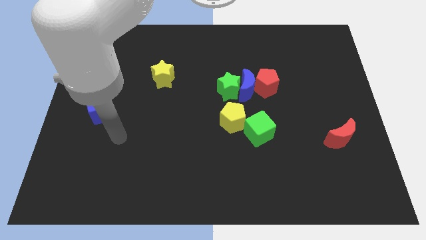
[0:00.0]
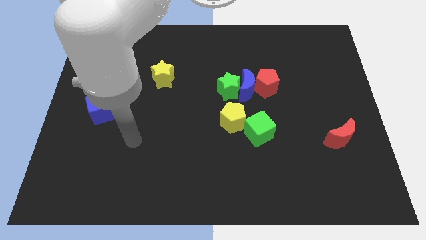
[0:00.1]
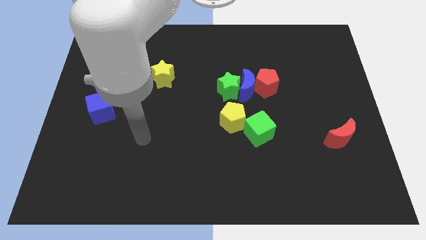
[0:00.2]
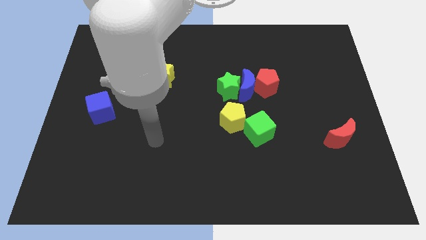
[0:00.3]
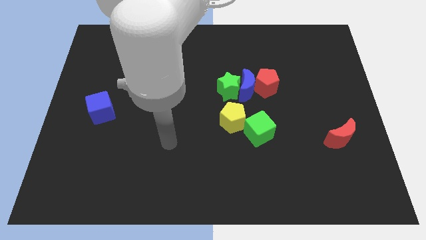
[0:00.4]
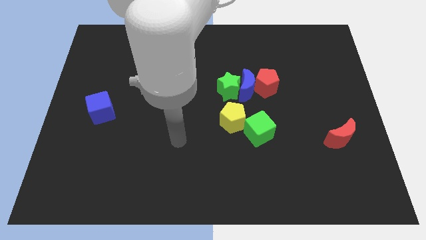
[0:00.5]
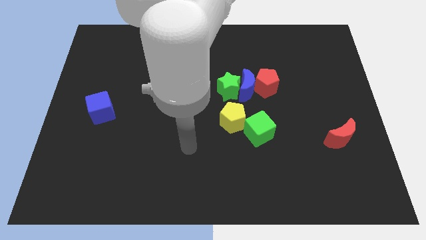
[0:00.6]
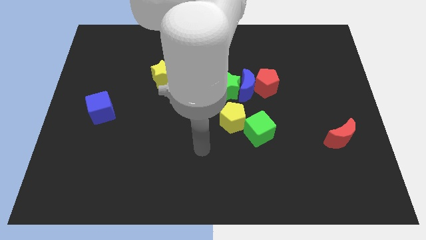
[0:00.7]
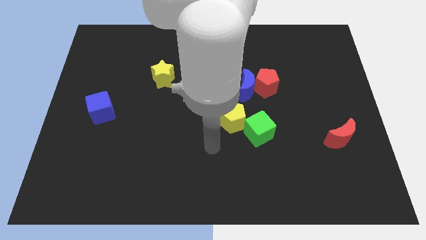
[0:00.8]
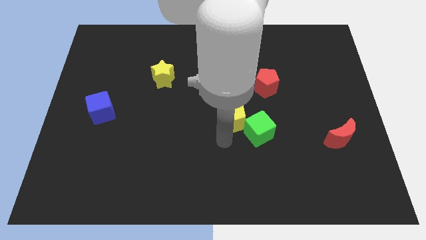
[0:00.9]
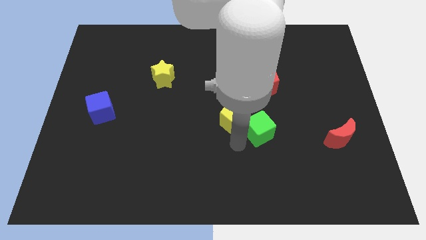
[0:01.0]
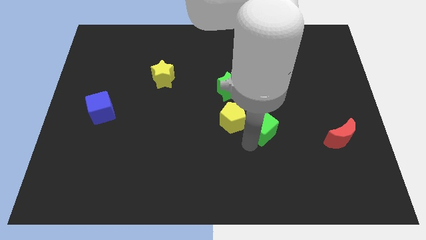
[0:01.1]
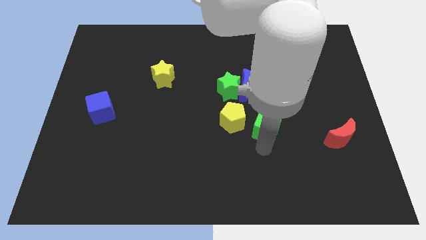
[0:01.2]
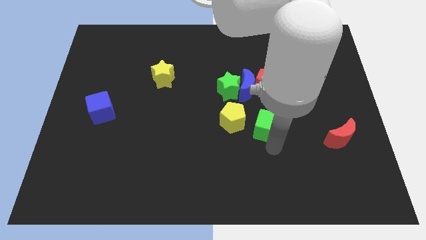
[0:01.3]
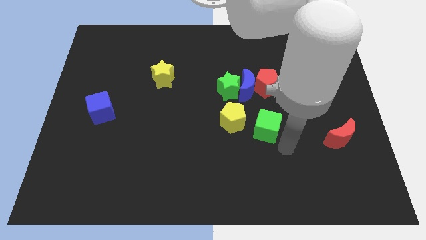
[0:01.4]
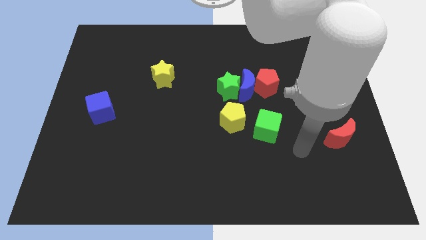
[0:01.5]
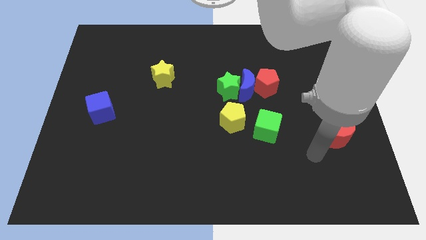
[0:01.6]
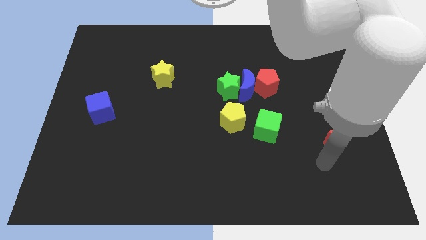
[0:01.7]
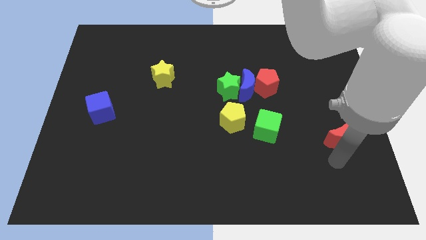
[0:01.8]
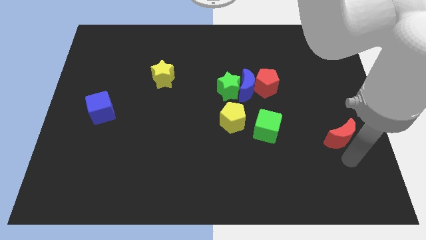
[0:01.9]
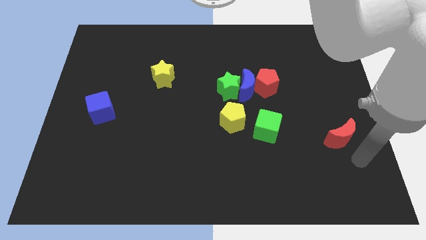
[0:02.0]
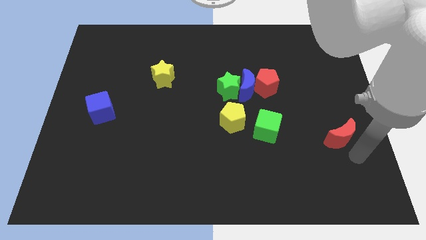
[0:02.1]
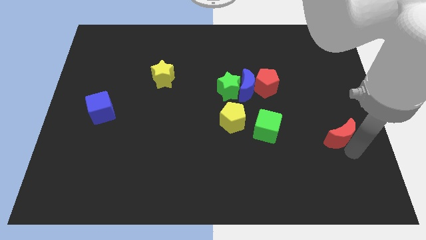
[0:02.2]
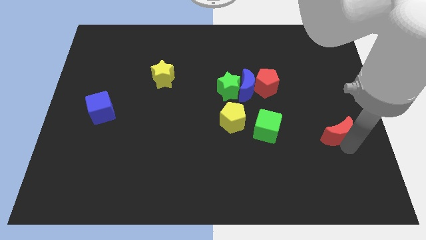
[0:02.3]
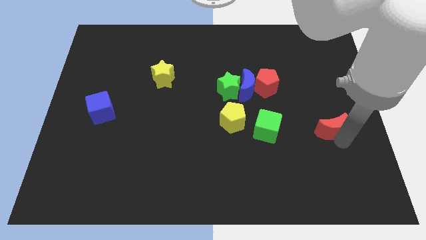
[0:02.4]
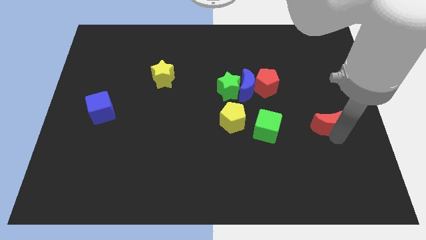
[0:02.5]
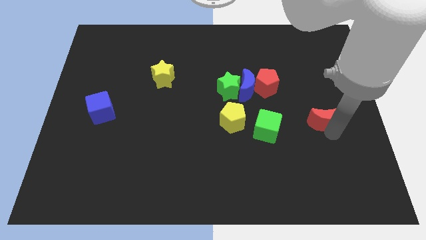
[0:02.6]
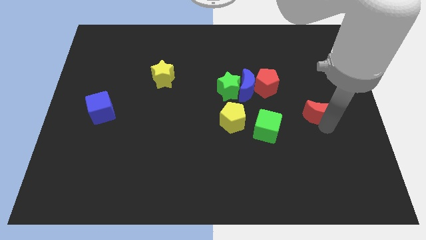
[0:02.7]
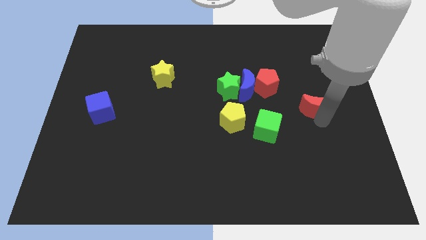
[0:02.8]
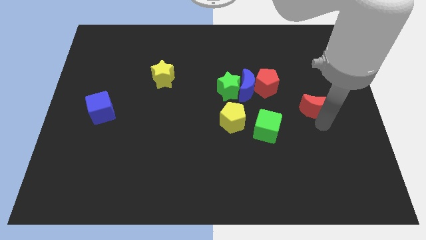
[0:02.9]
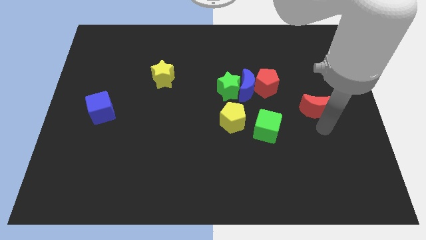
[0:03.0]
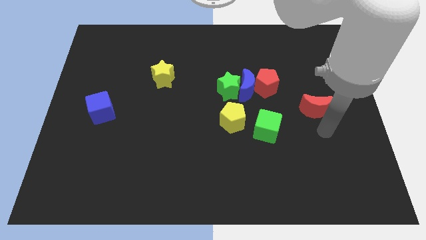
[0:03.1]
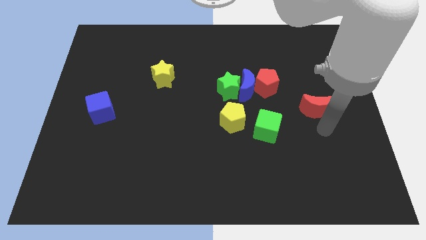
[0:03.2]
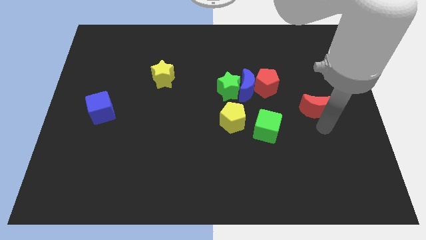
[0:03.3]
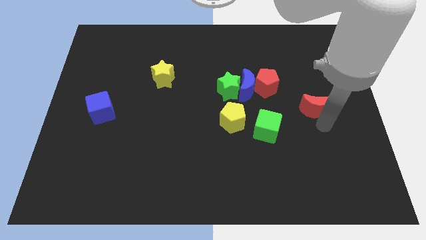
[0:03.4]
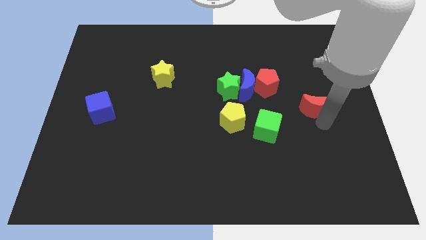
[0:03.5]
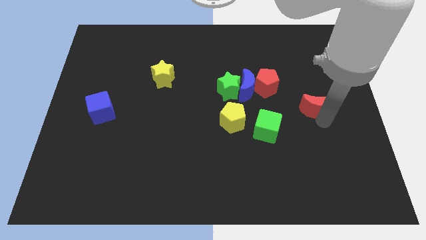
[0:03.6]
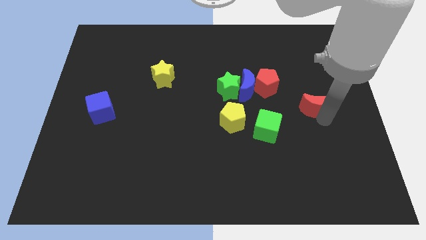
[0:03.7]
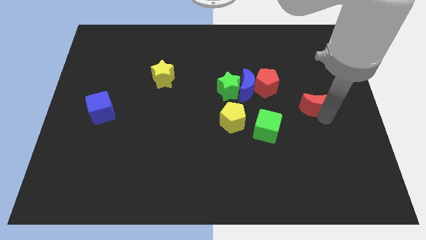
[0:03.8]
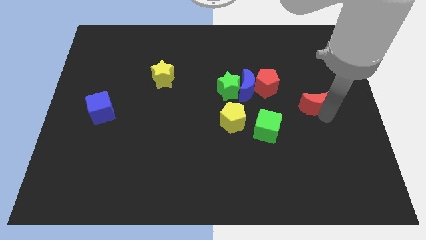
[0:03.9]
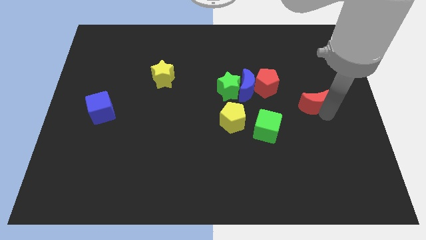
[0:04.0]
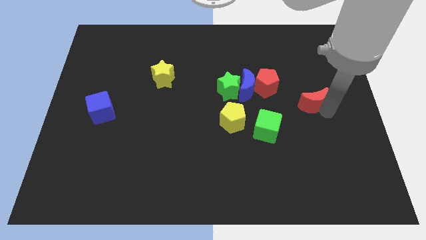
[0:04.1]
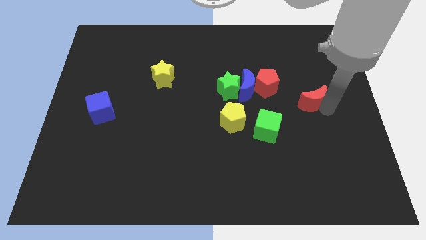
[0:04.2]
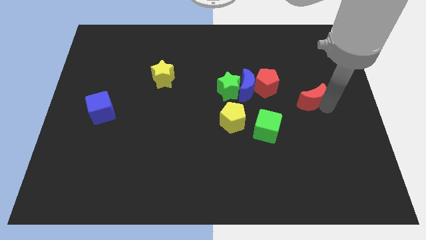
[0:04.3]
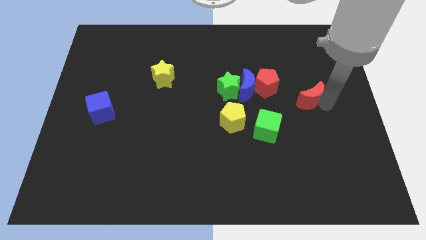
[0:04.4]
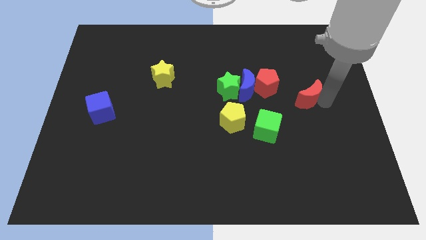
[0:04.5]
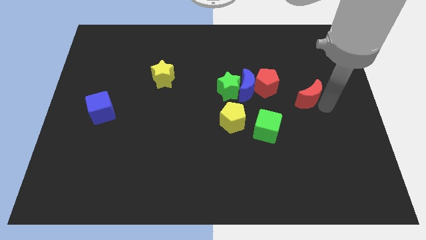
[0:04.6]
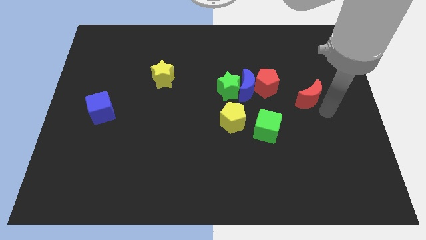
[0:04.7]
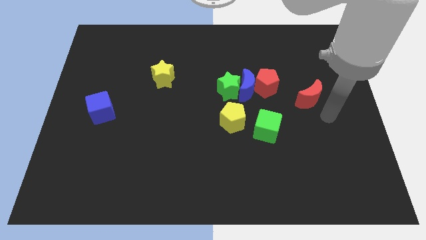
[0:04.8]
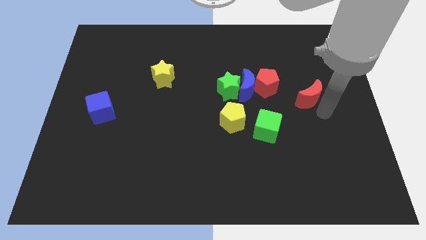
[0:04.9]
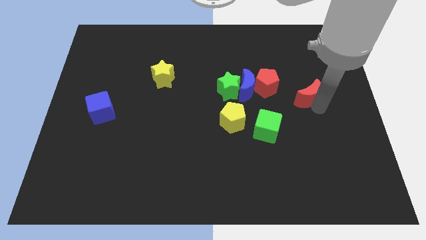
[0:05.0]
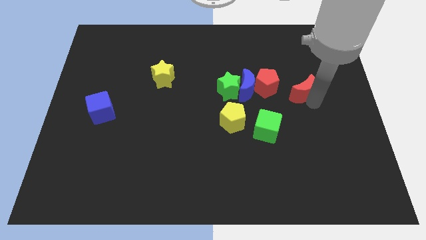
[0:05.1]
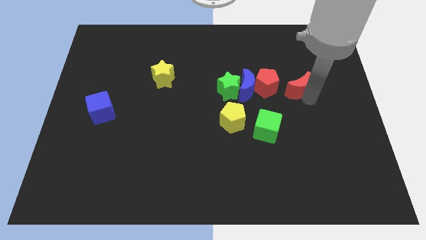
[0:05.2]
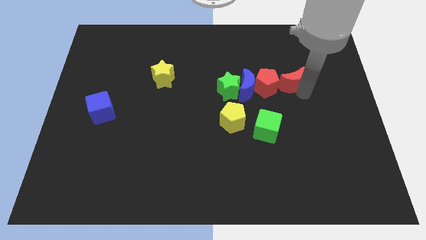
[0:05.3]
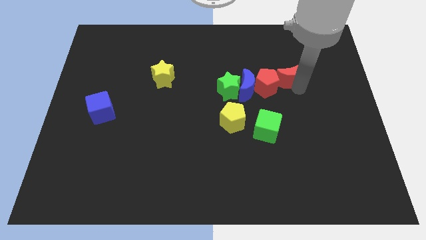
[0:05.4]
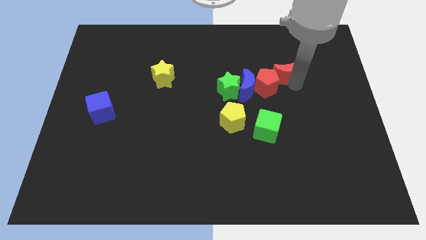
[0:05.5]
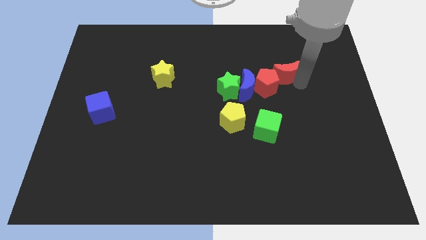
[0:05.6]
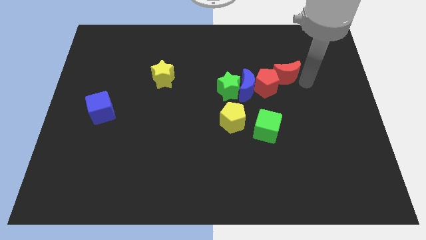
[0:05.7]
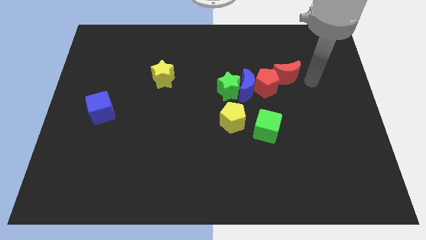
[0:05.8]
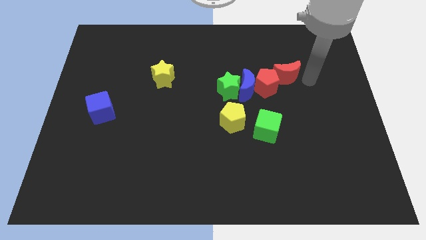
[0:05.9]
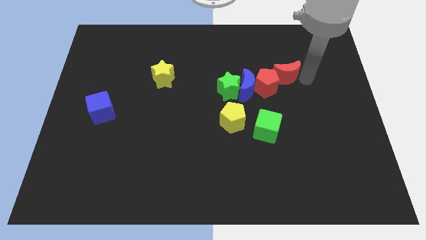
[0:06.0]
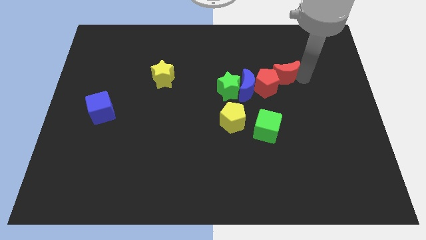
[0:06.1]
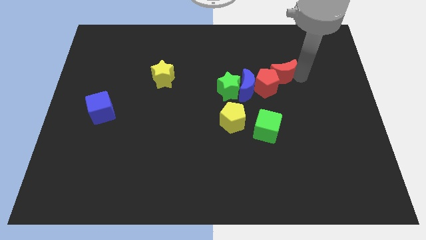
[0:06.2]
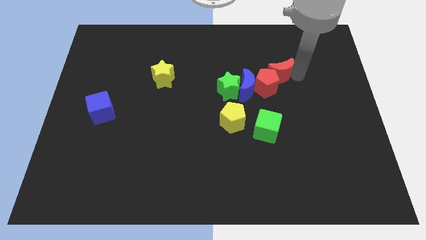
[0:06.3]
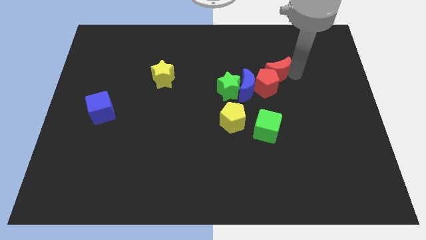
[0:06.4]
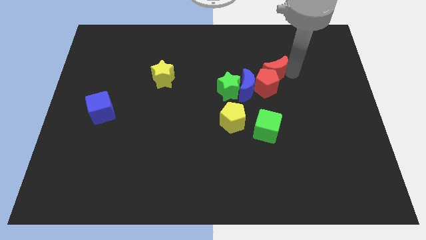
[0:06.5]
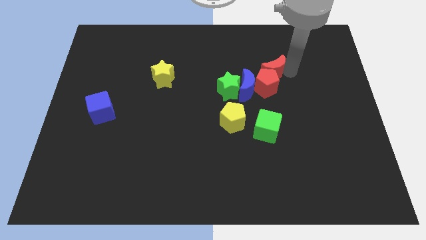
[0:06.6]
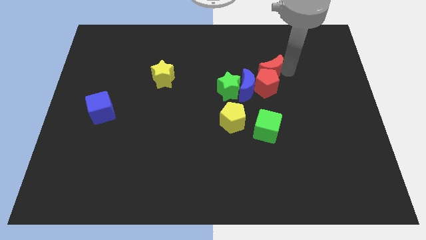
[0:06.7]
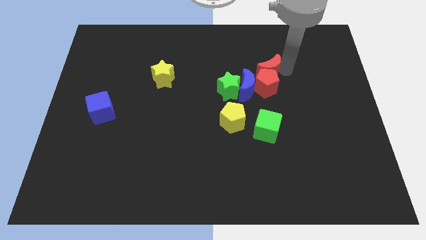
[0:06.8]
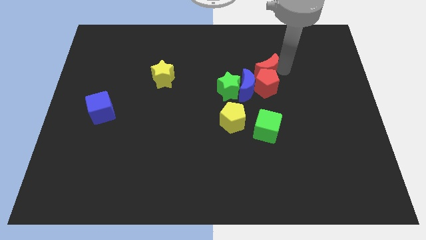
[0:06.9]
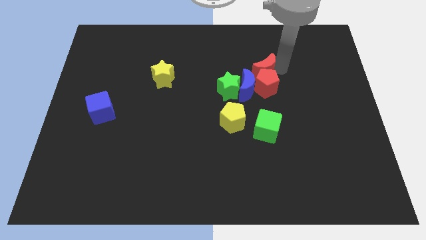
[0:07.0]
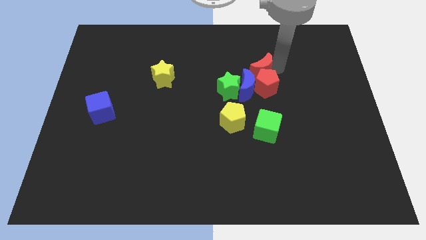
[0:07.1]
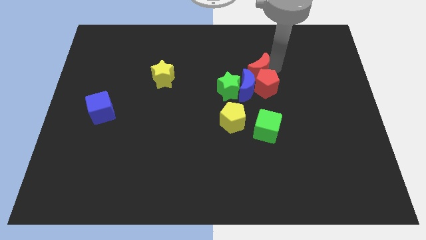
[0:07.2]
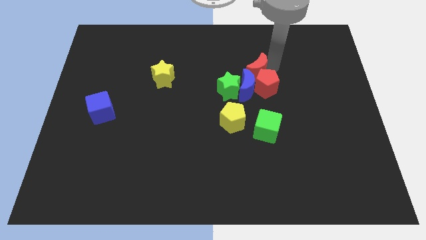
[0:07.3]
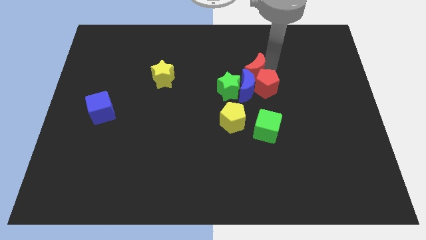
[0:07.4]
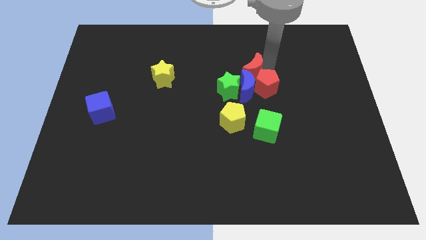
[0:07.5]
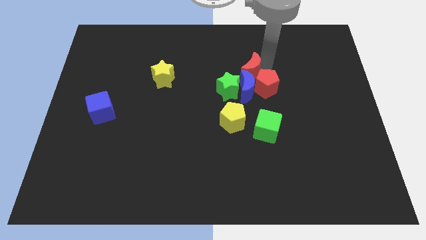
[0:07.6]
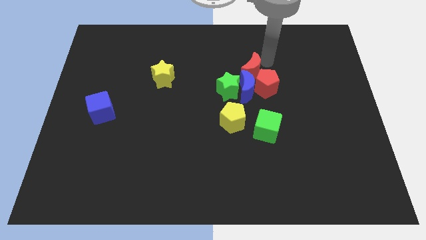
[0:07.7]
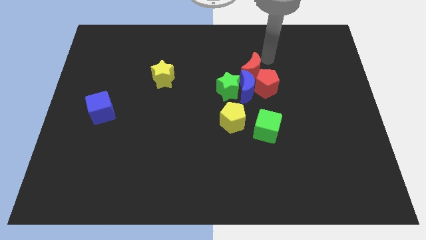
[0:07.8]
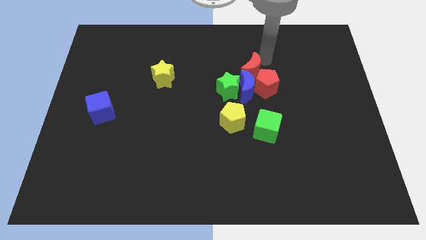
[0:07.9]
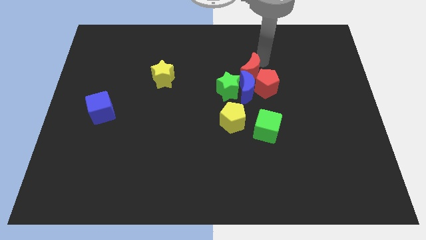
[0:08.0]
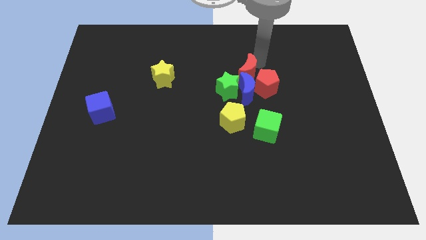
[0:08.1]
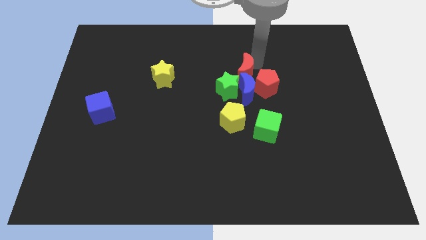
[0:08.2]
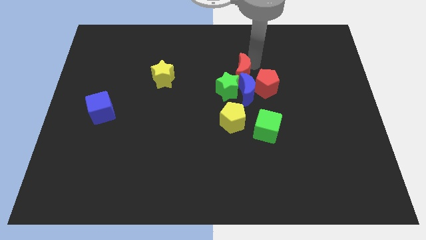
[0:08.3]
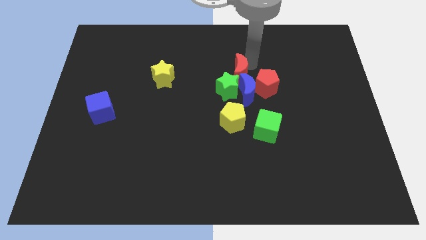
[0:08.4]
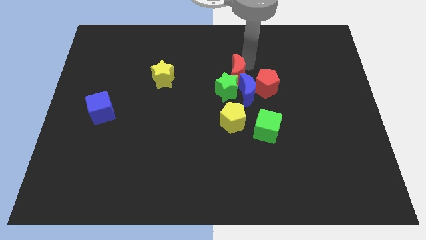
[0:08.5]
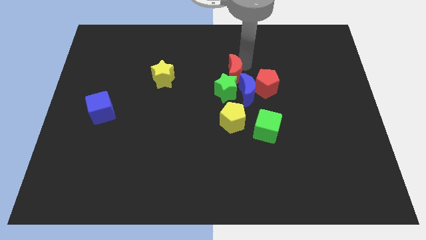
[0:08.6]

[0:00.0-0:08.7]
slide the red moon to the green star
